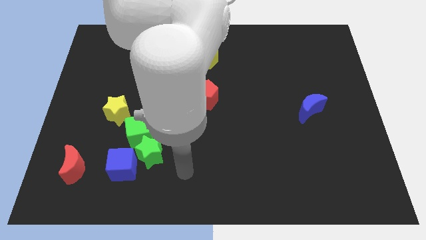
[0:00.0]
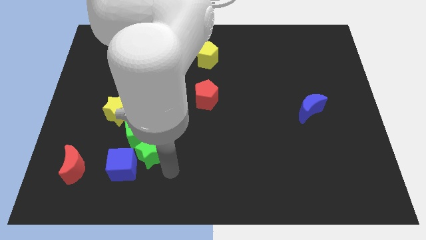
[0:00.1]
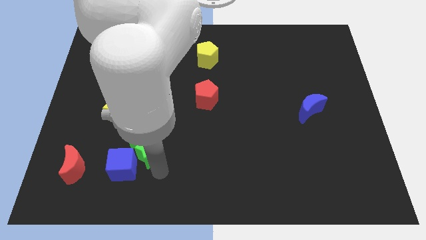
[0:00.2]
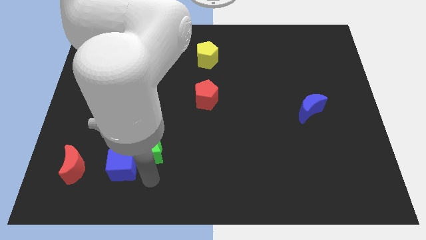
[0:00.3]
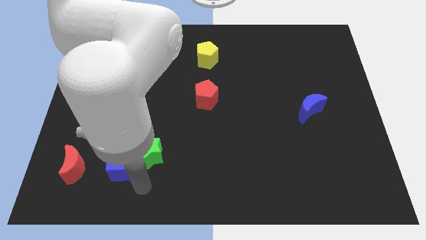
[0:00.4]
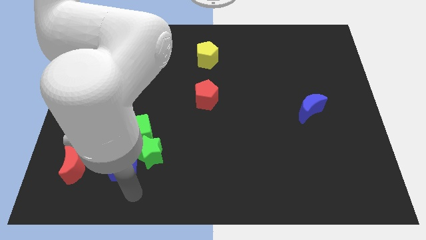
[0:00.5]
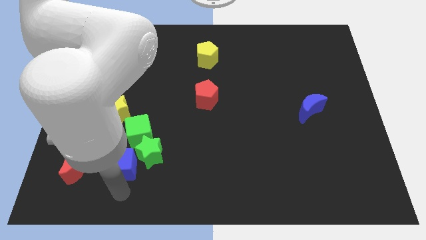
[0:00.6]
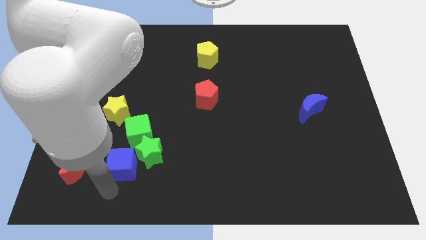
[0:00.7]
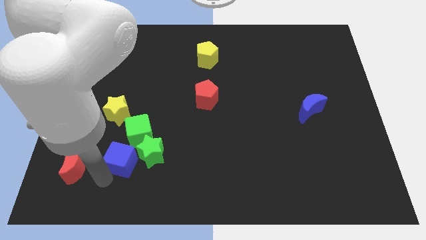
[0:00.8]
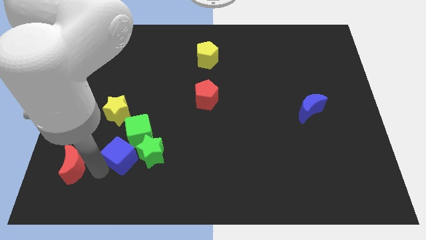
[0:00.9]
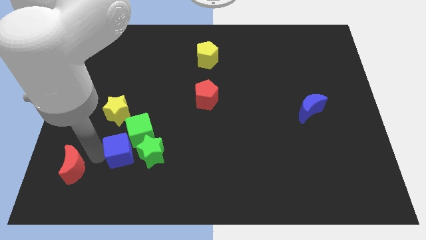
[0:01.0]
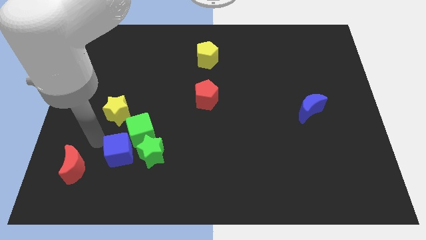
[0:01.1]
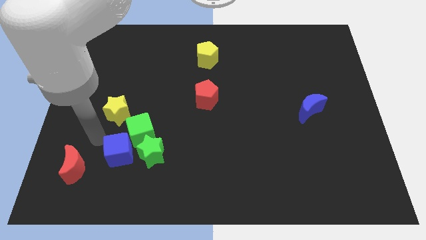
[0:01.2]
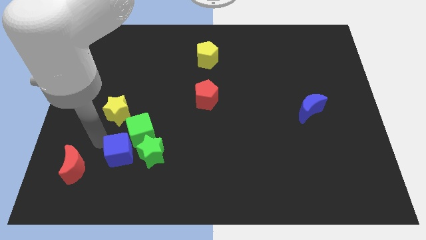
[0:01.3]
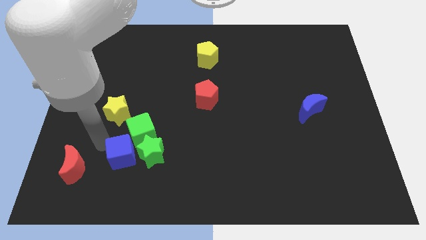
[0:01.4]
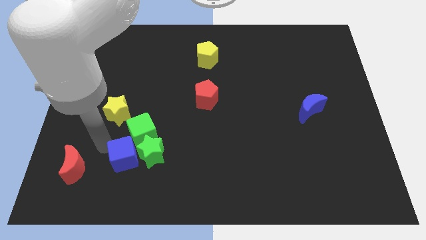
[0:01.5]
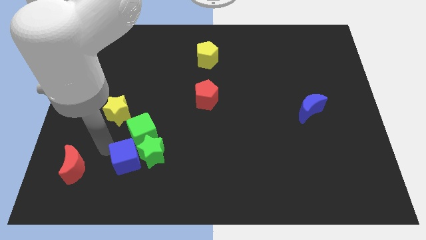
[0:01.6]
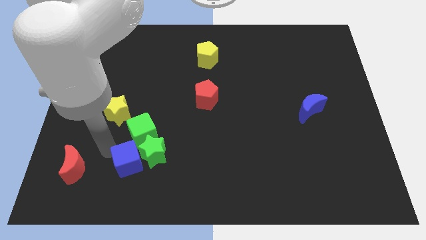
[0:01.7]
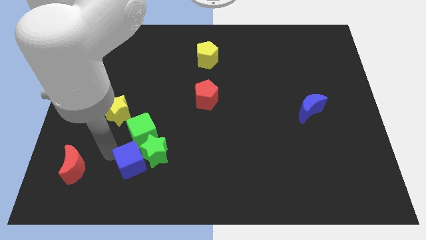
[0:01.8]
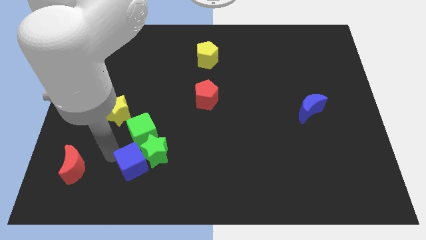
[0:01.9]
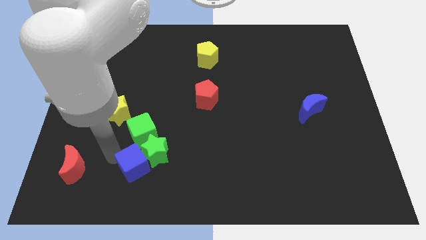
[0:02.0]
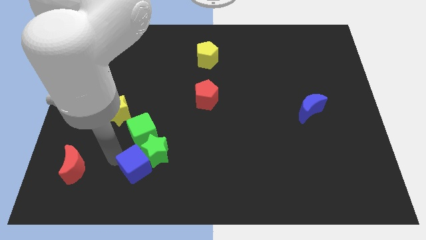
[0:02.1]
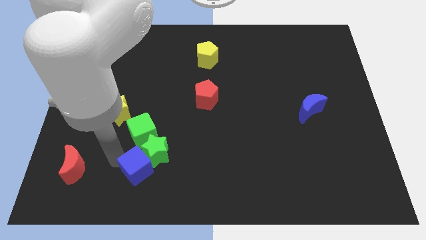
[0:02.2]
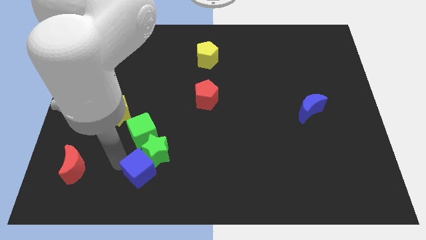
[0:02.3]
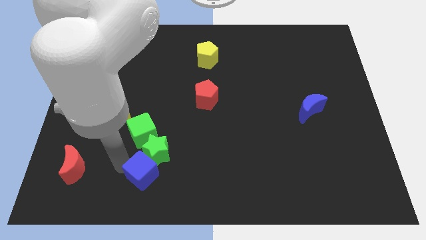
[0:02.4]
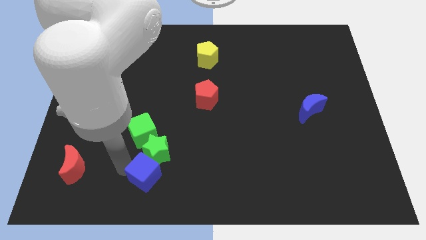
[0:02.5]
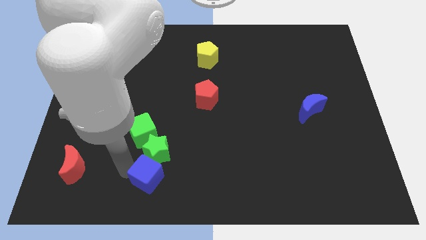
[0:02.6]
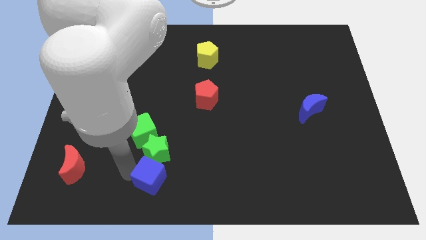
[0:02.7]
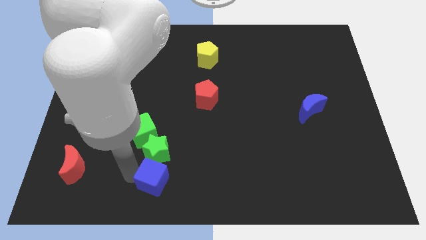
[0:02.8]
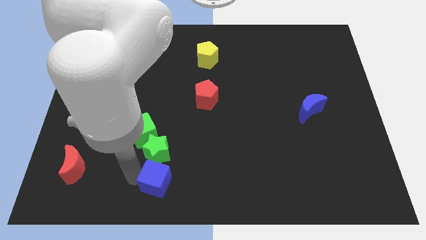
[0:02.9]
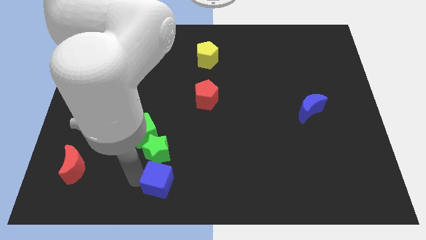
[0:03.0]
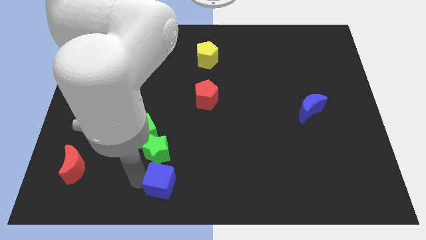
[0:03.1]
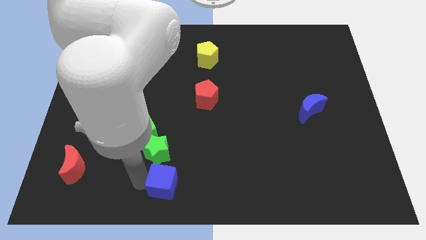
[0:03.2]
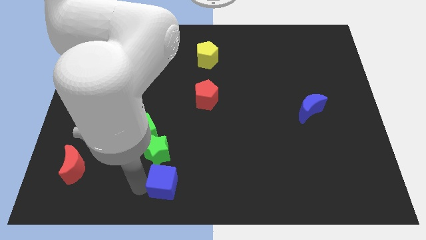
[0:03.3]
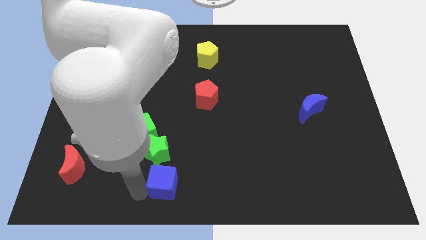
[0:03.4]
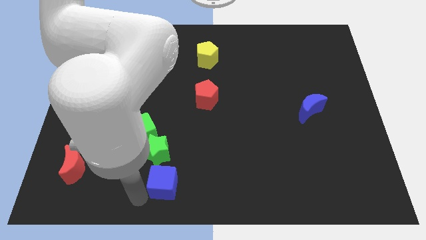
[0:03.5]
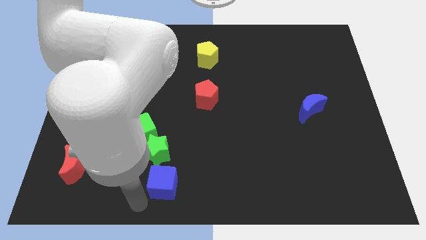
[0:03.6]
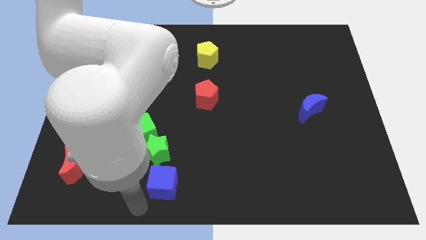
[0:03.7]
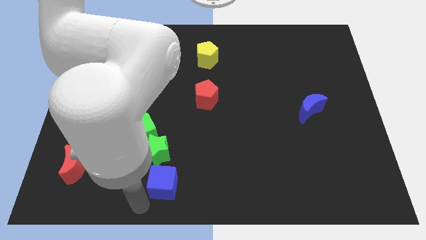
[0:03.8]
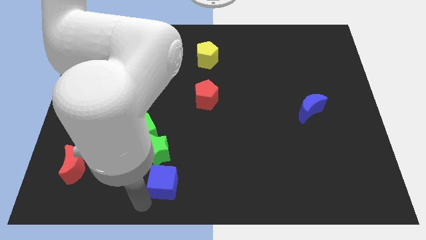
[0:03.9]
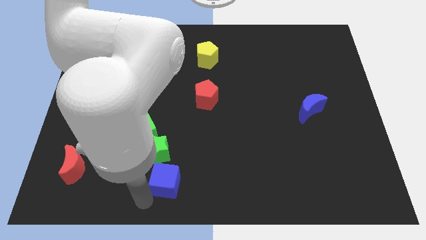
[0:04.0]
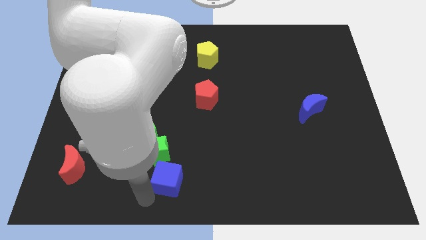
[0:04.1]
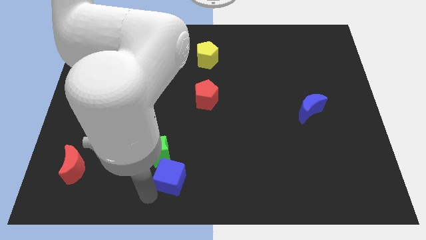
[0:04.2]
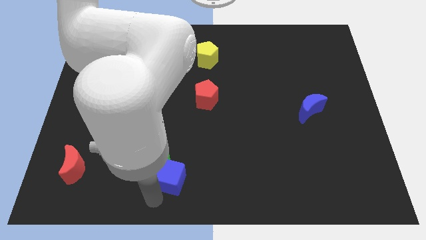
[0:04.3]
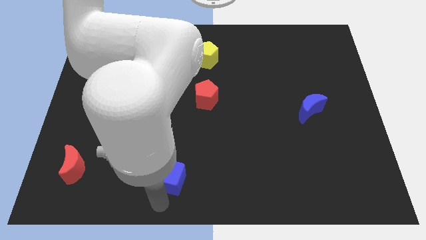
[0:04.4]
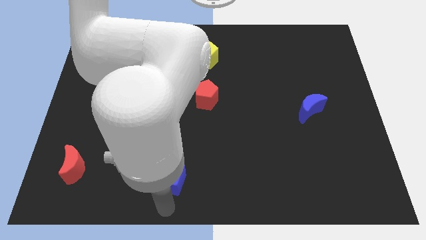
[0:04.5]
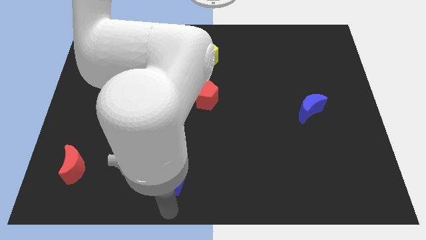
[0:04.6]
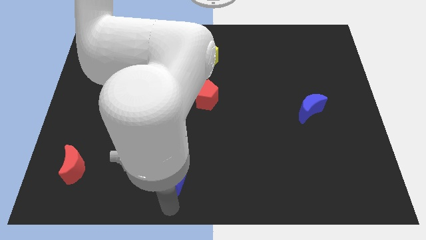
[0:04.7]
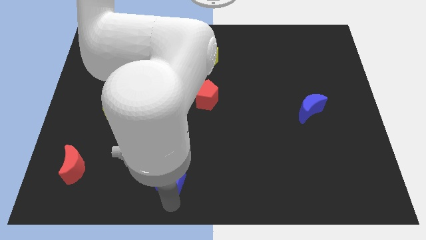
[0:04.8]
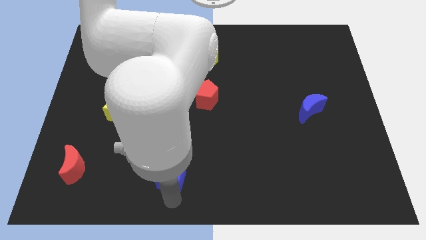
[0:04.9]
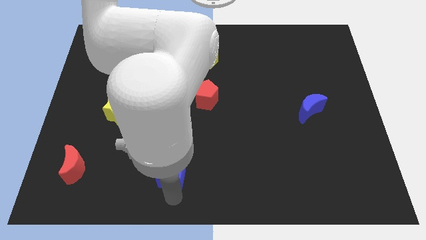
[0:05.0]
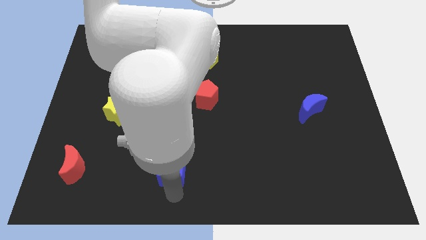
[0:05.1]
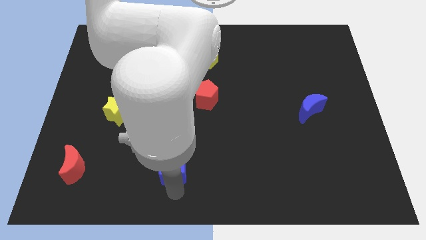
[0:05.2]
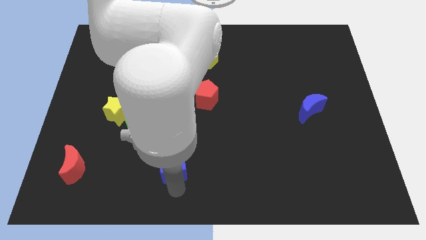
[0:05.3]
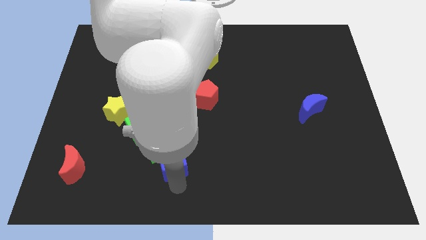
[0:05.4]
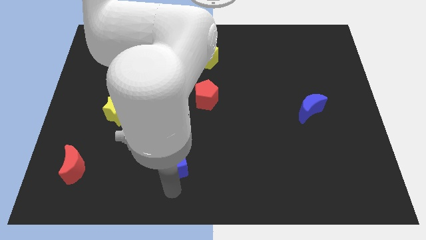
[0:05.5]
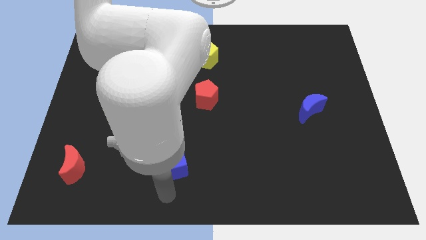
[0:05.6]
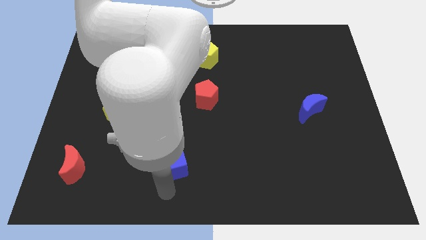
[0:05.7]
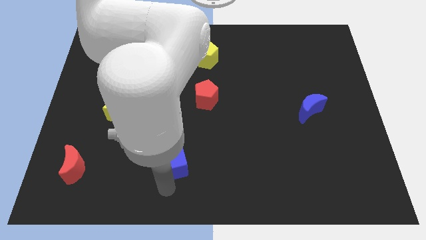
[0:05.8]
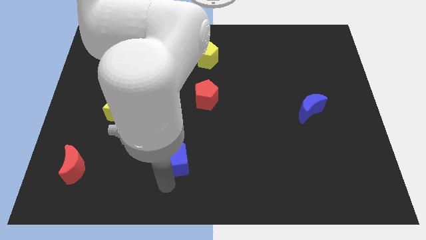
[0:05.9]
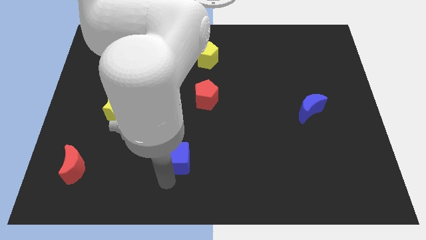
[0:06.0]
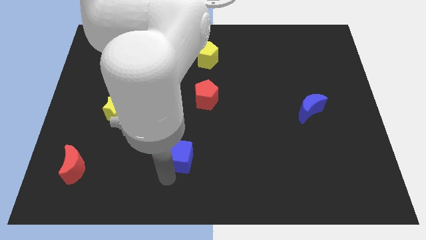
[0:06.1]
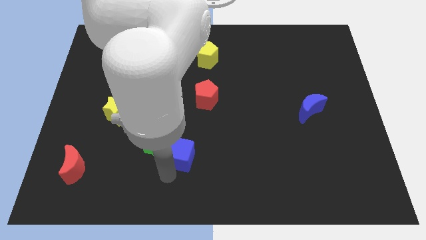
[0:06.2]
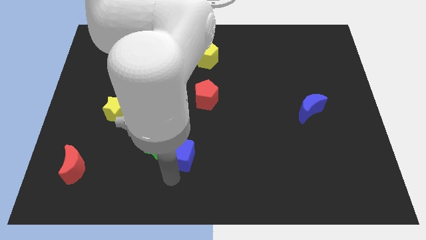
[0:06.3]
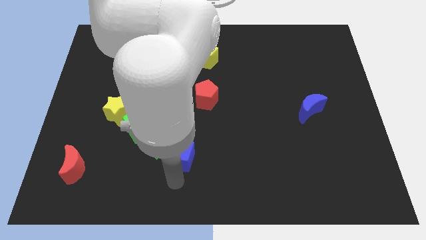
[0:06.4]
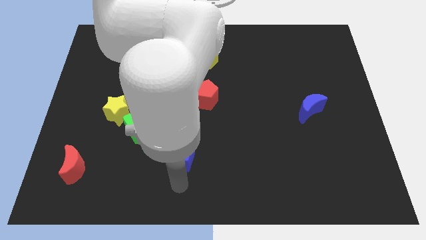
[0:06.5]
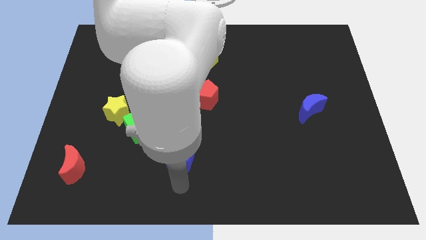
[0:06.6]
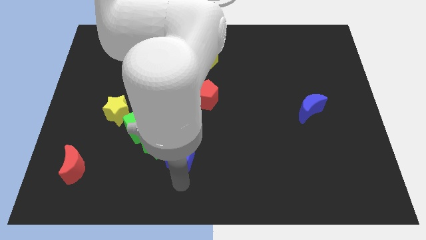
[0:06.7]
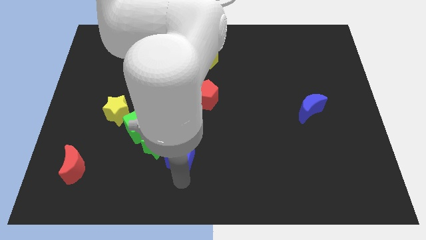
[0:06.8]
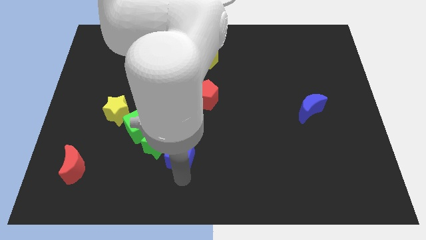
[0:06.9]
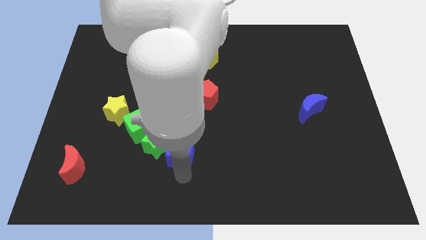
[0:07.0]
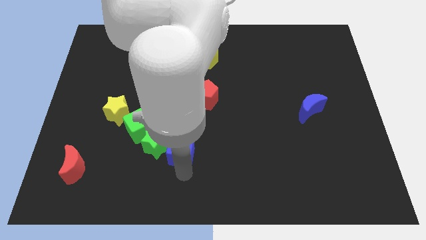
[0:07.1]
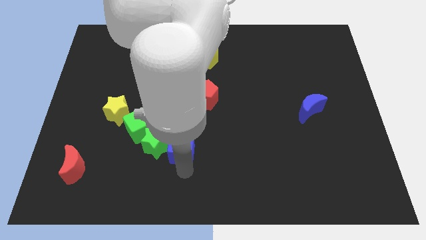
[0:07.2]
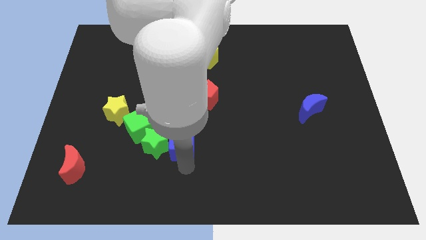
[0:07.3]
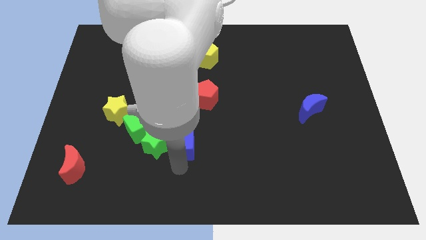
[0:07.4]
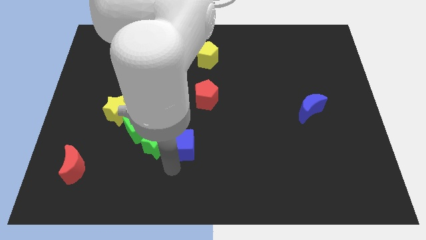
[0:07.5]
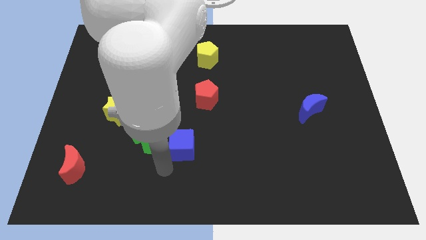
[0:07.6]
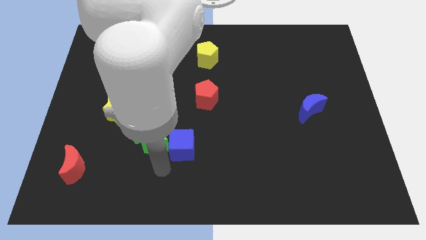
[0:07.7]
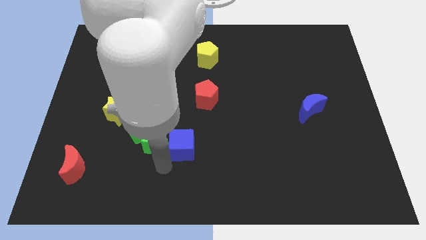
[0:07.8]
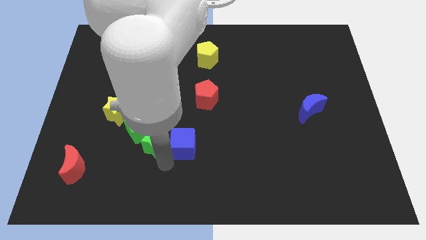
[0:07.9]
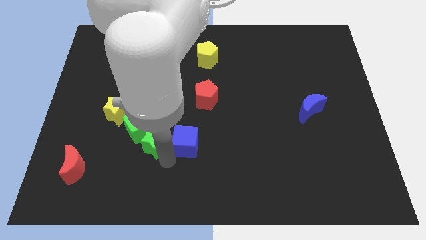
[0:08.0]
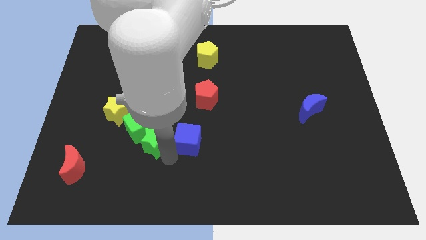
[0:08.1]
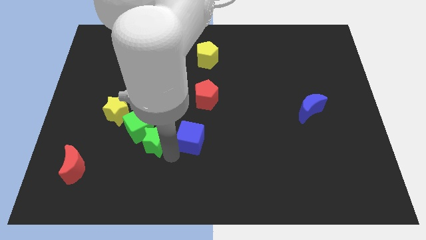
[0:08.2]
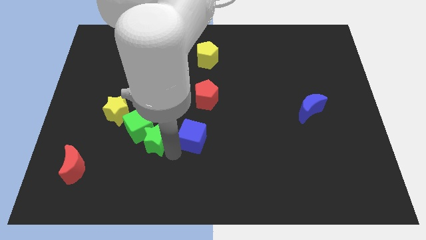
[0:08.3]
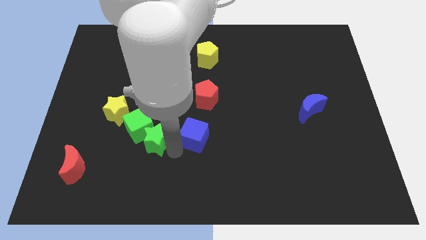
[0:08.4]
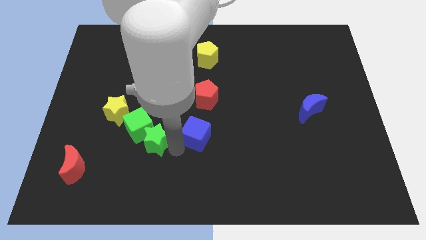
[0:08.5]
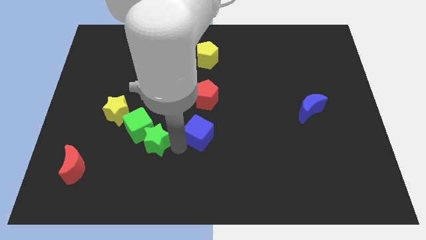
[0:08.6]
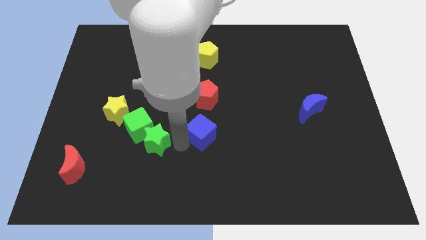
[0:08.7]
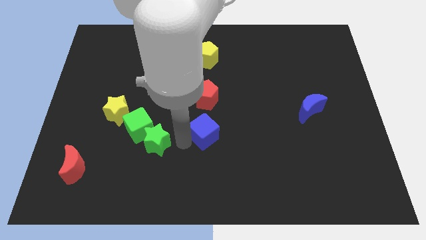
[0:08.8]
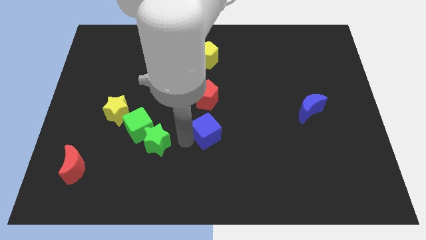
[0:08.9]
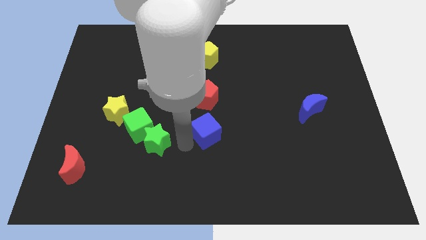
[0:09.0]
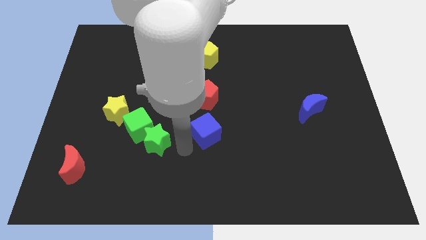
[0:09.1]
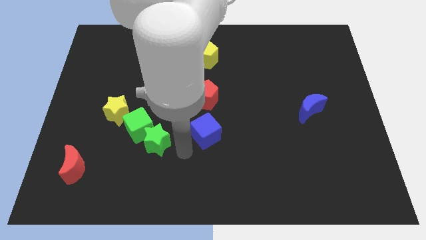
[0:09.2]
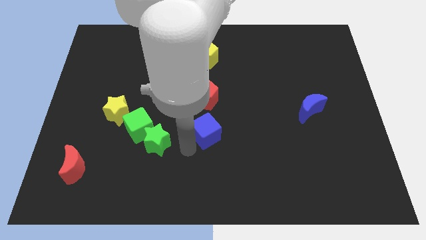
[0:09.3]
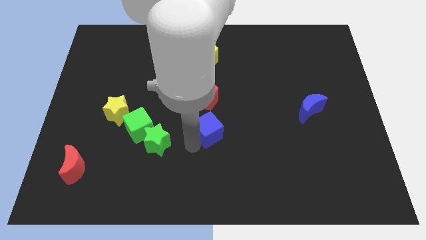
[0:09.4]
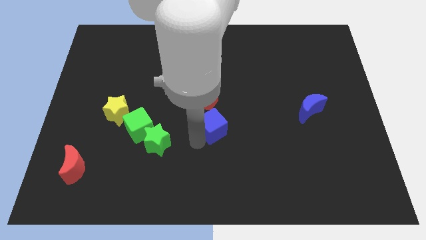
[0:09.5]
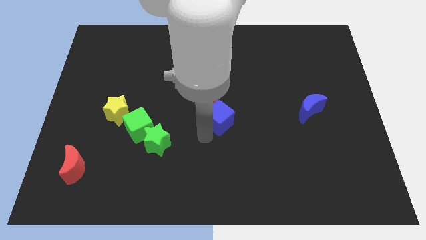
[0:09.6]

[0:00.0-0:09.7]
slide the blue cube up and then right
